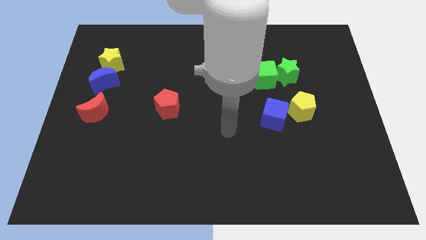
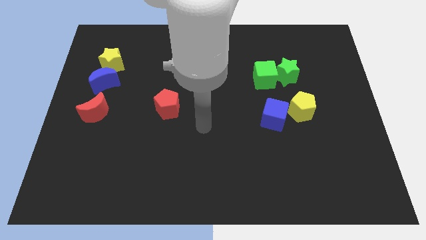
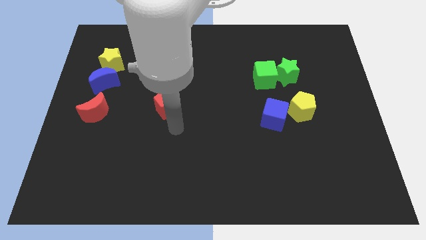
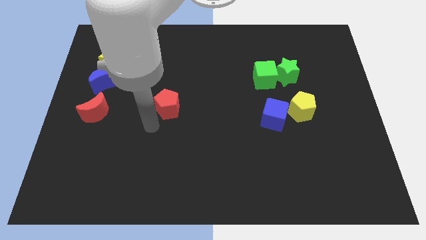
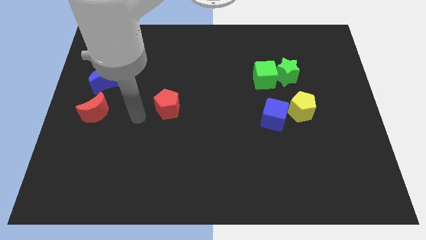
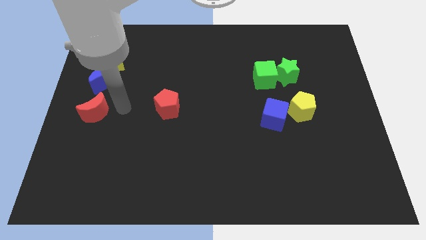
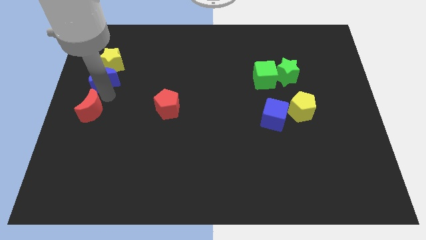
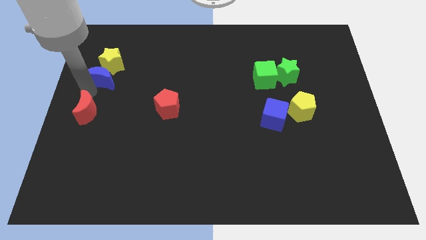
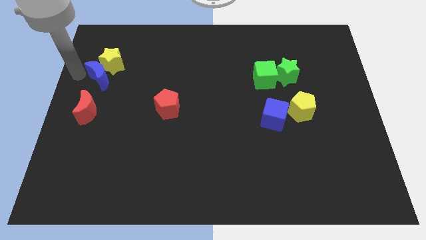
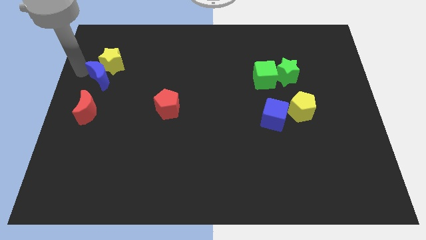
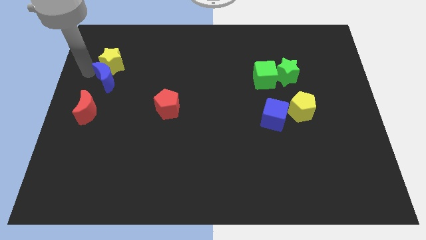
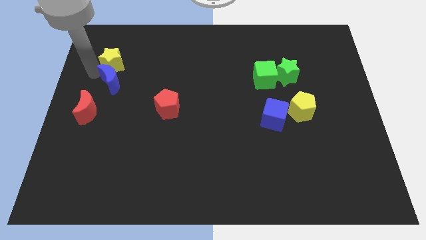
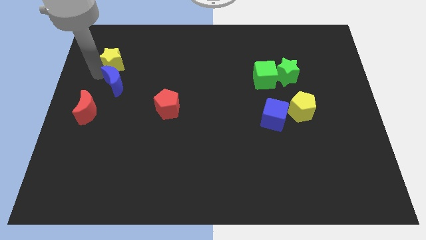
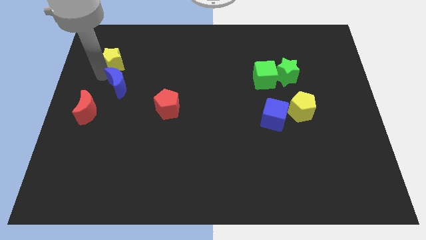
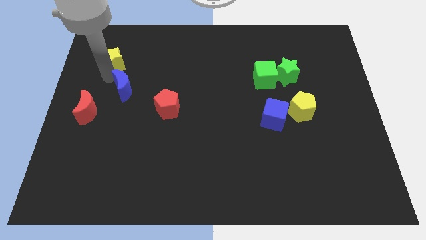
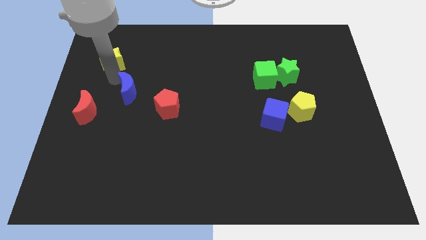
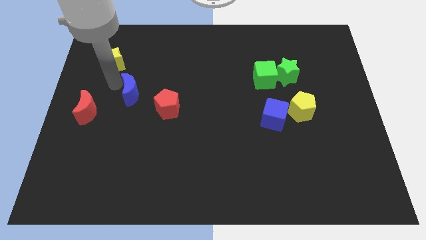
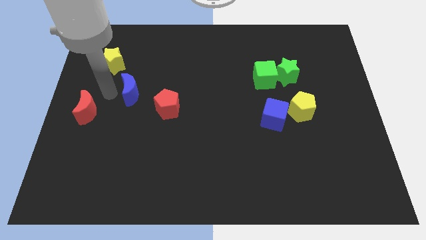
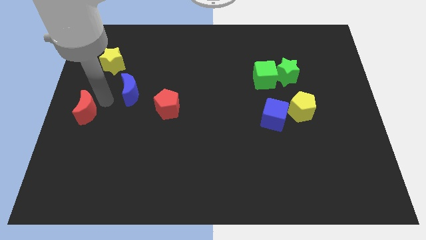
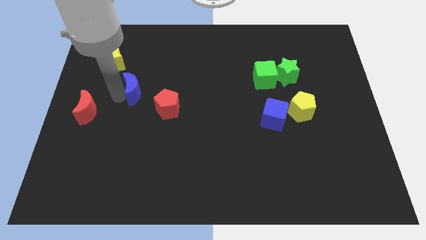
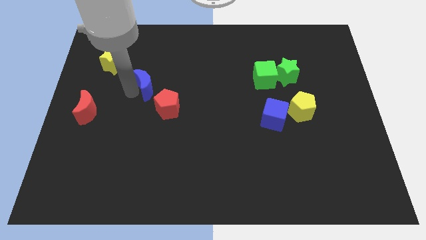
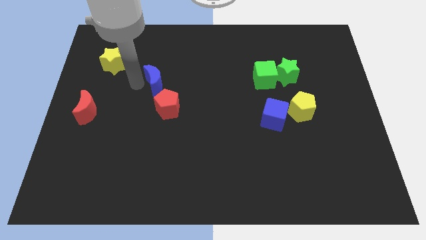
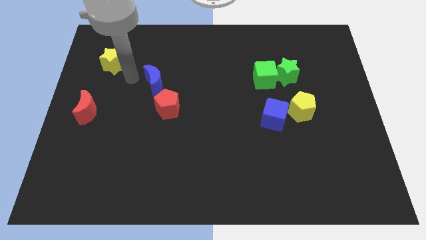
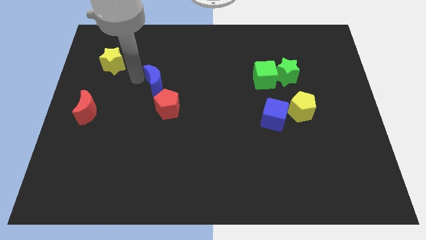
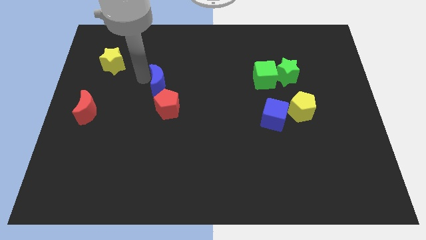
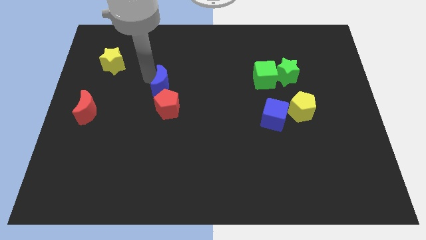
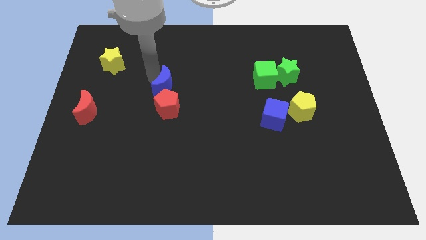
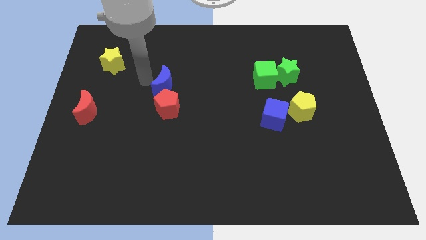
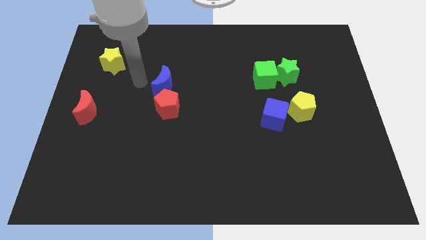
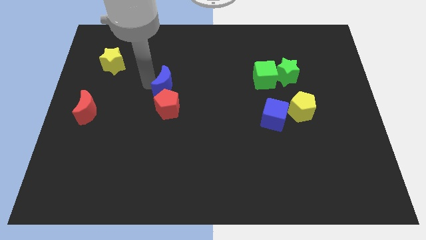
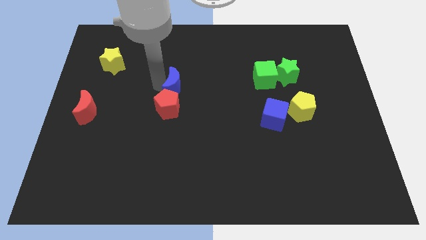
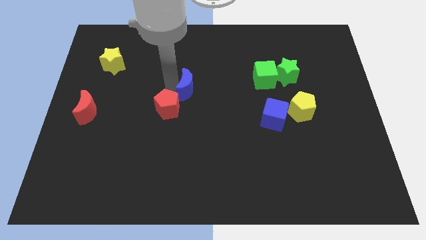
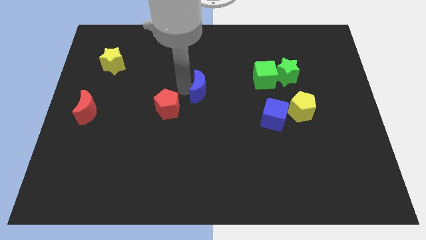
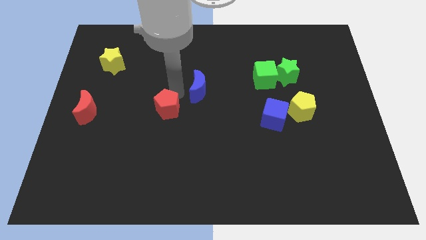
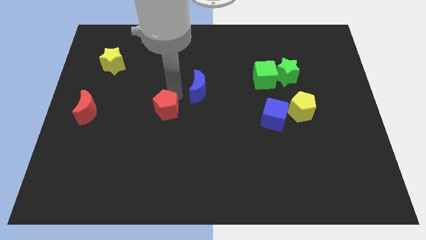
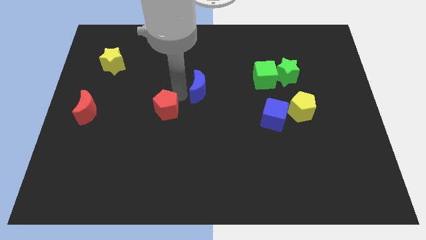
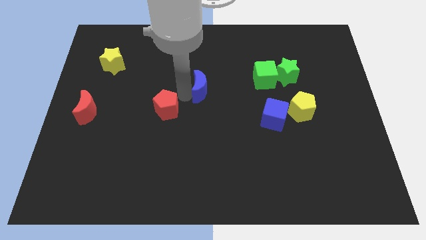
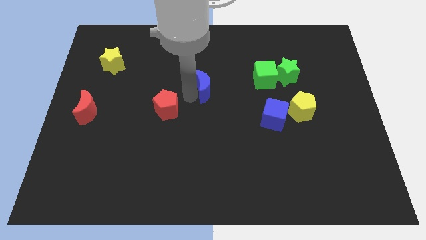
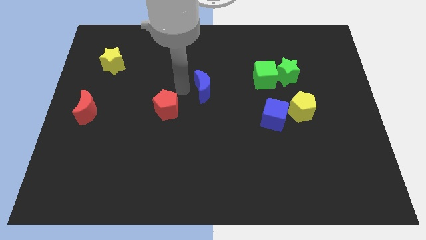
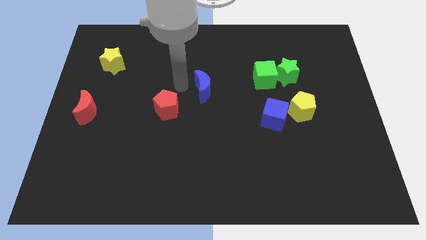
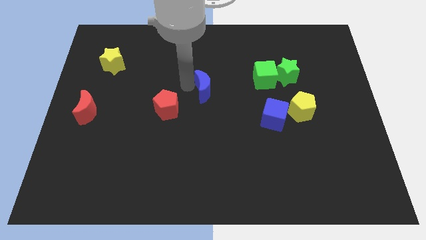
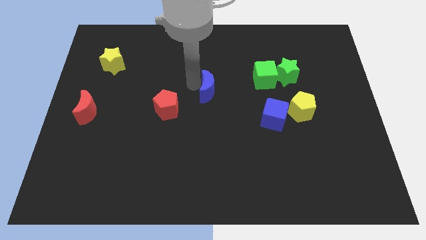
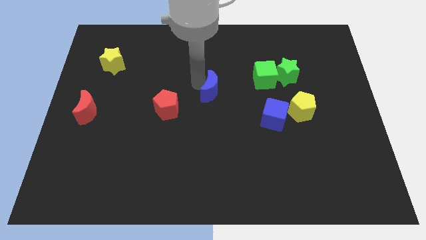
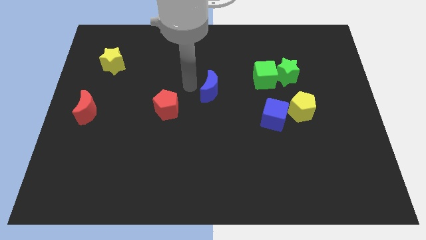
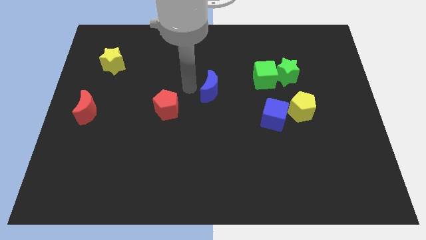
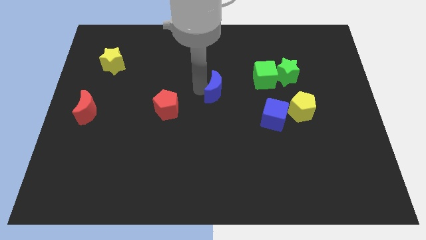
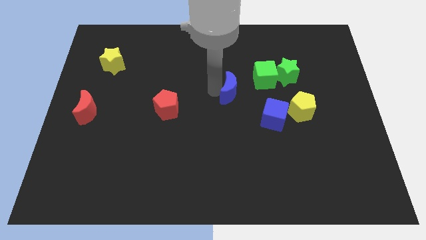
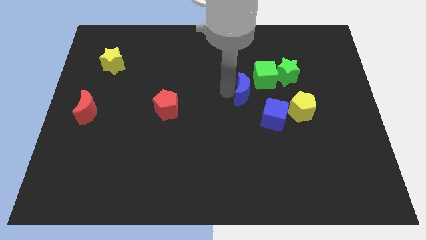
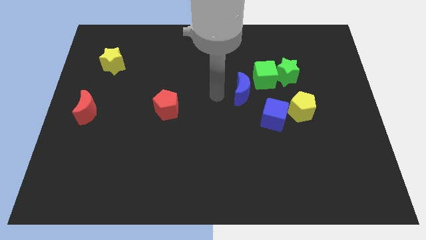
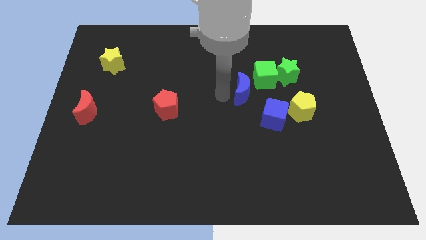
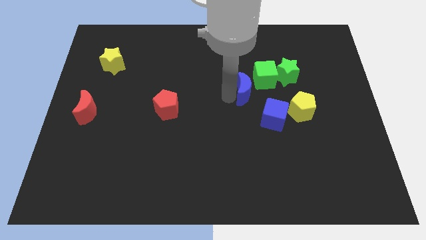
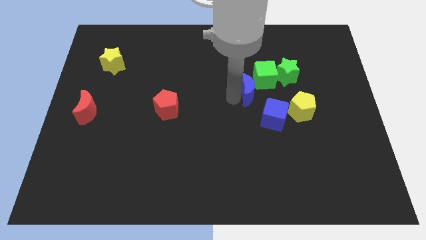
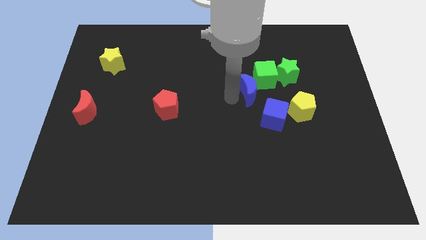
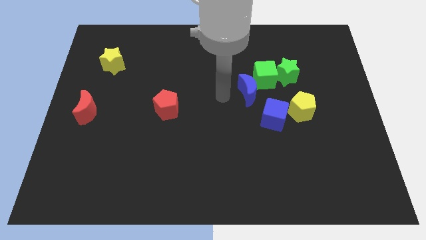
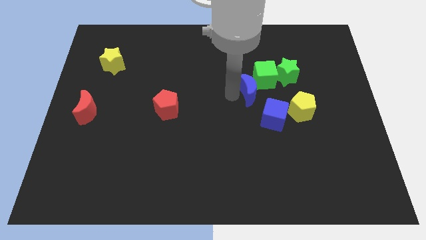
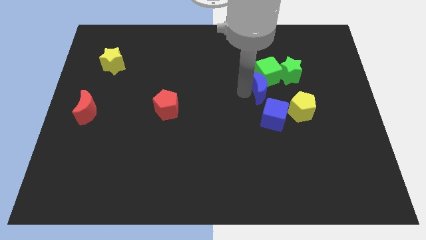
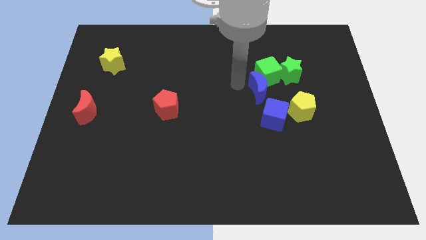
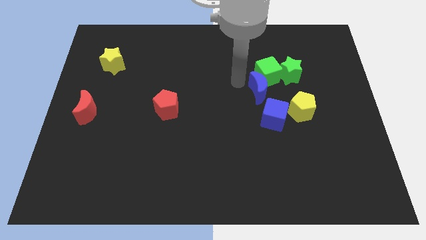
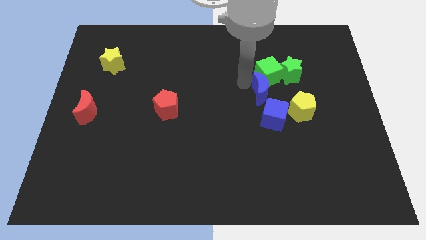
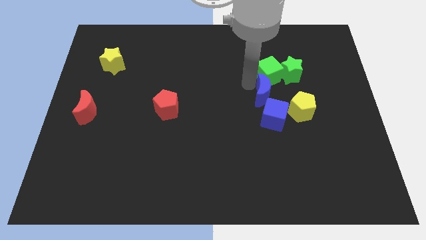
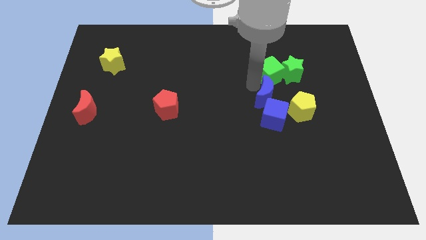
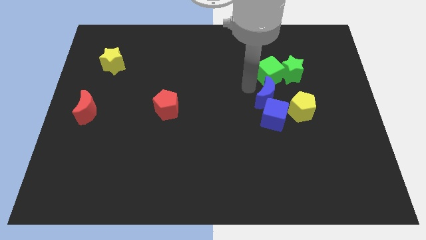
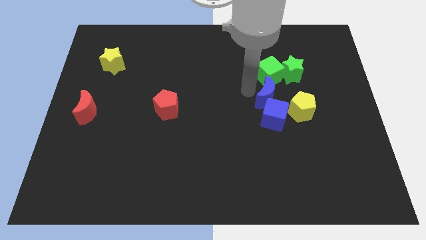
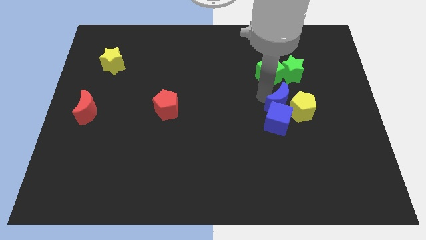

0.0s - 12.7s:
slide the blue moon to the yellow pentagon
